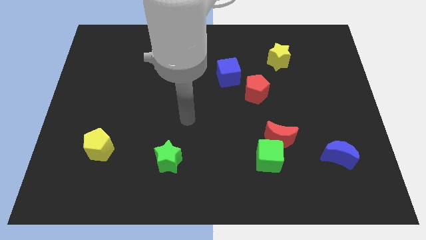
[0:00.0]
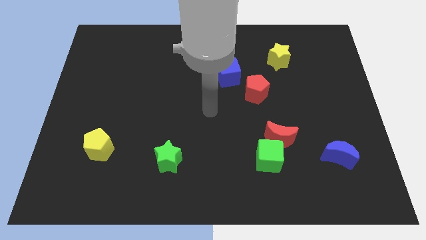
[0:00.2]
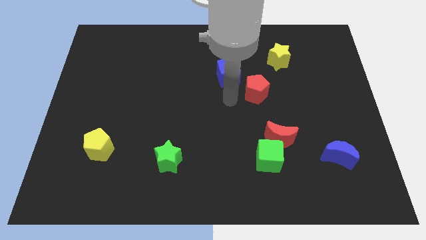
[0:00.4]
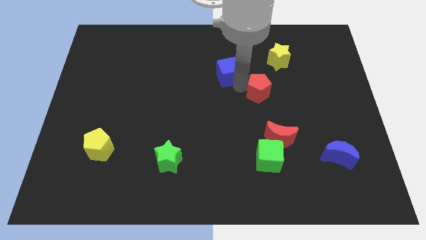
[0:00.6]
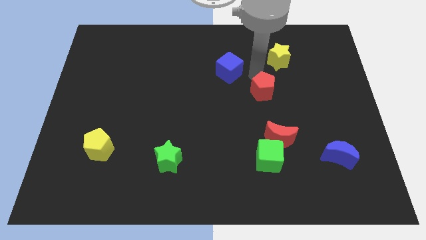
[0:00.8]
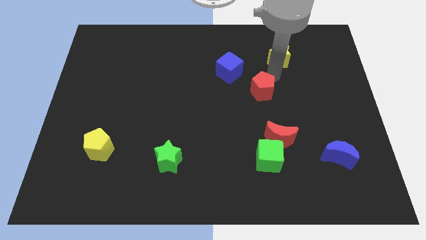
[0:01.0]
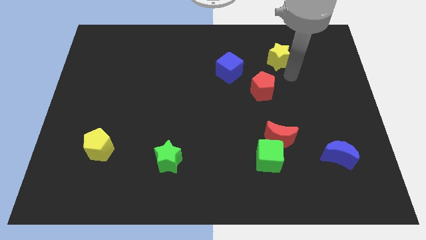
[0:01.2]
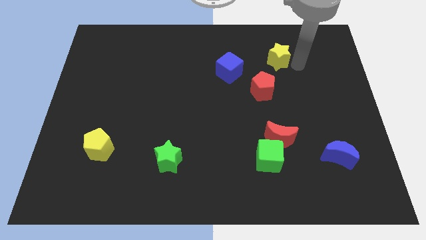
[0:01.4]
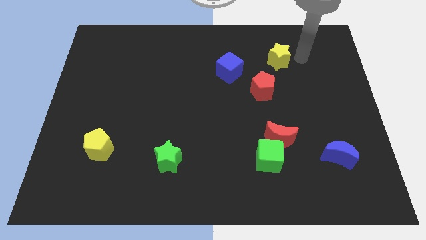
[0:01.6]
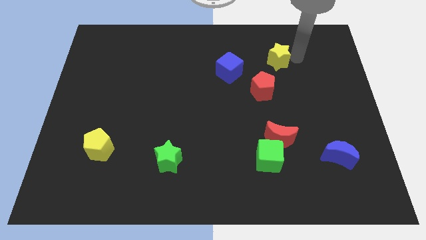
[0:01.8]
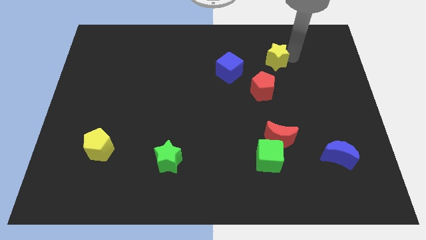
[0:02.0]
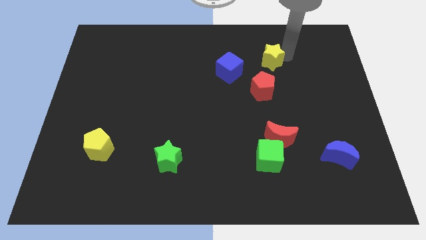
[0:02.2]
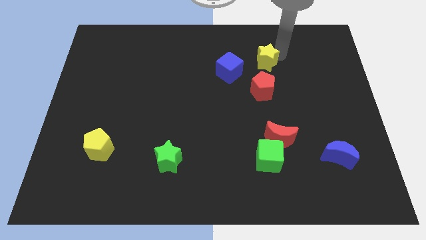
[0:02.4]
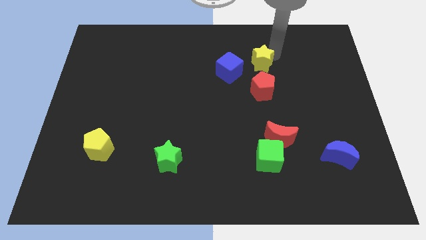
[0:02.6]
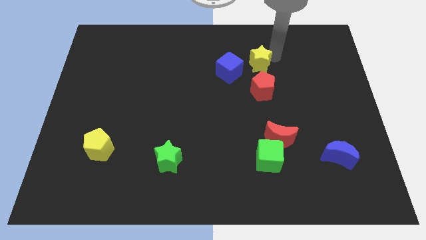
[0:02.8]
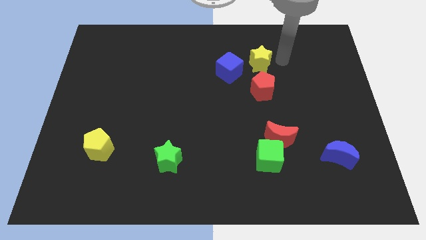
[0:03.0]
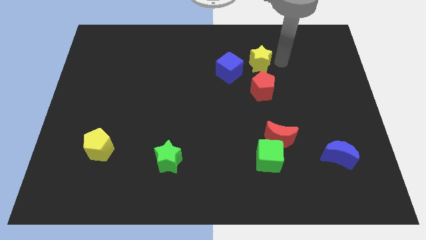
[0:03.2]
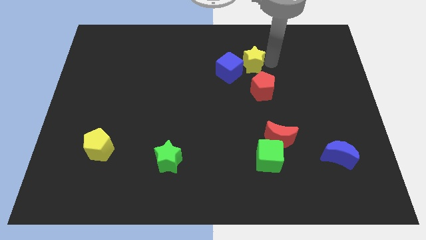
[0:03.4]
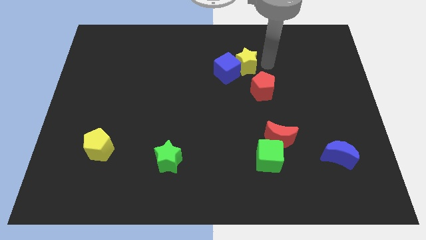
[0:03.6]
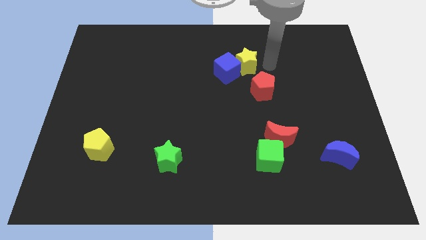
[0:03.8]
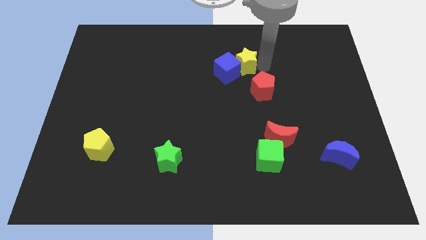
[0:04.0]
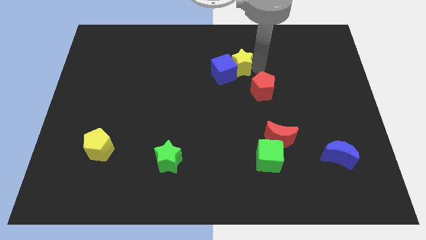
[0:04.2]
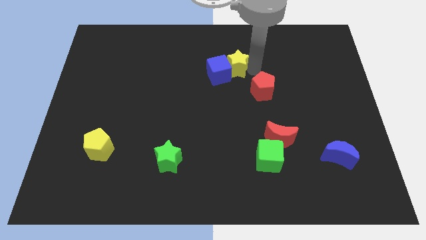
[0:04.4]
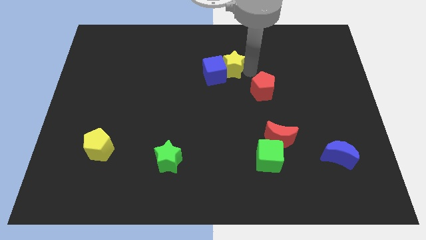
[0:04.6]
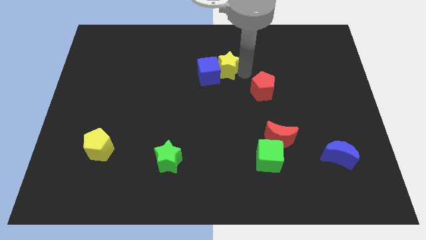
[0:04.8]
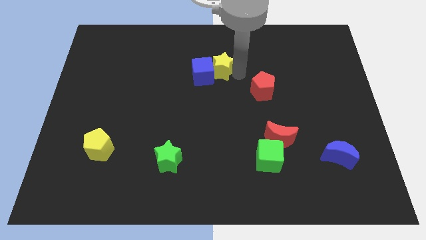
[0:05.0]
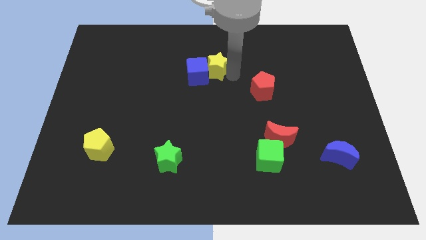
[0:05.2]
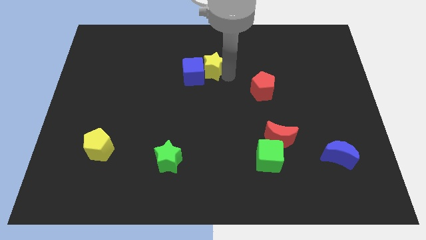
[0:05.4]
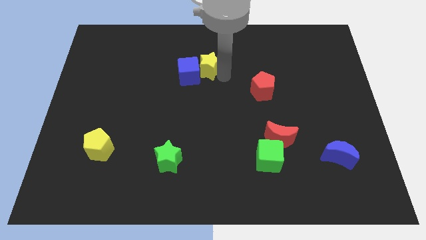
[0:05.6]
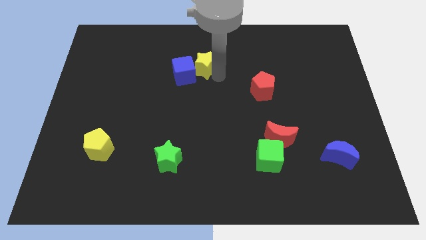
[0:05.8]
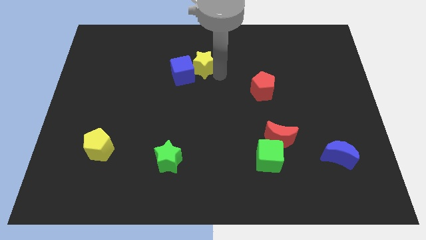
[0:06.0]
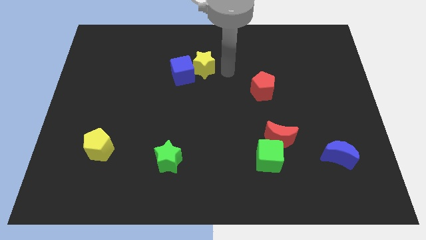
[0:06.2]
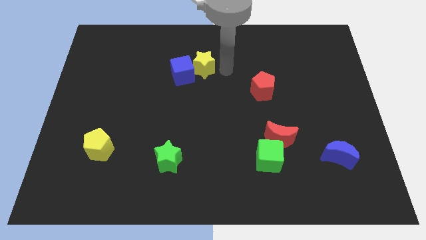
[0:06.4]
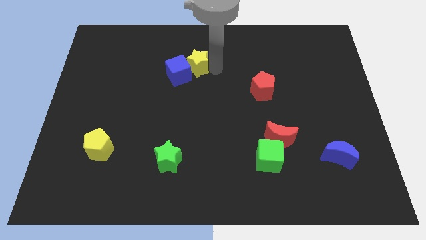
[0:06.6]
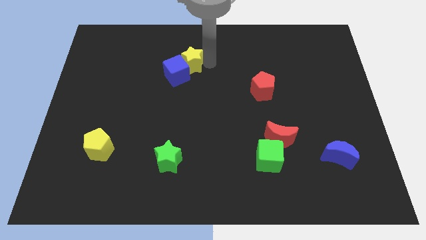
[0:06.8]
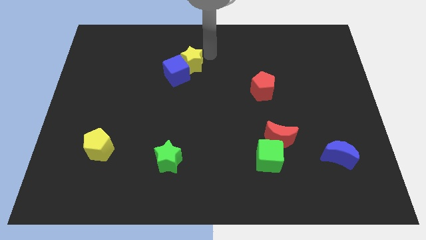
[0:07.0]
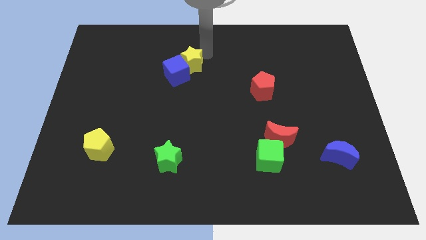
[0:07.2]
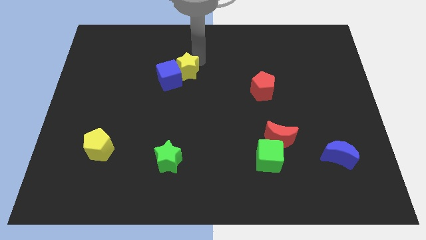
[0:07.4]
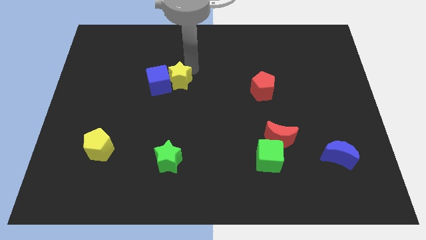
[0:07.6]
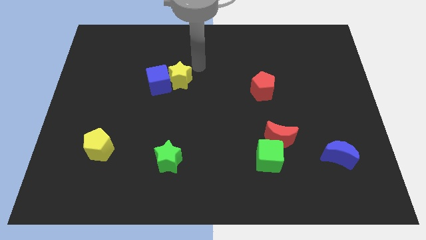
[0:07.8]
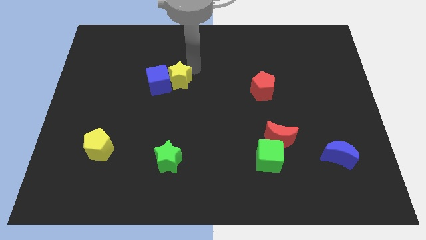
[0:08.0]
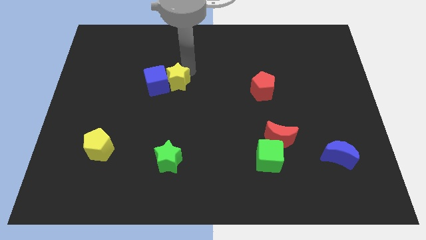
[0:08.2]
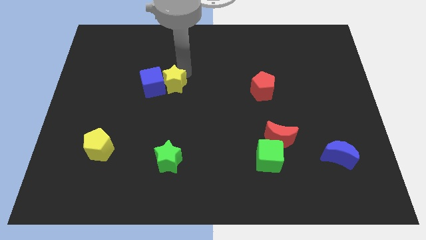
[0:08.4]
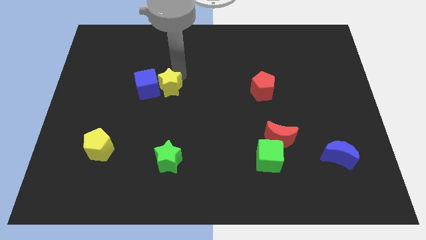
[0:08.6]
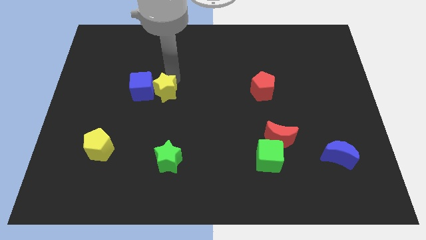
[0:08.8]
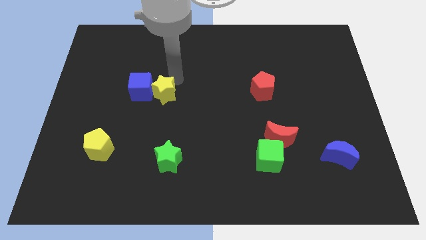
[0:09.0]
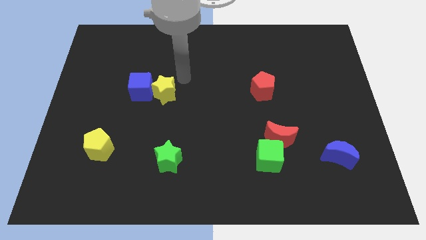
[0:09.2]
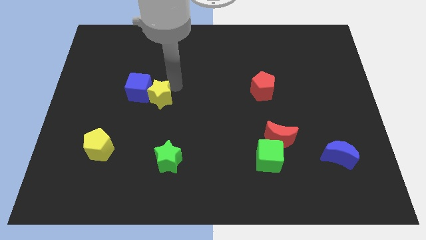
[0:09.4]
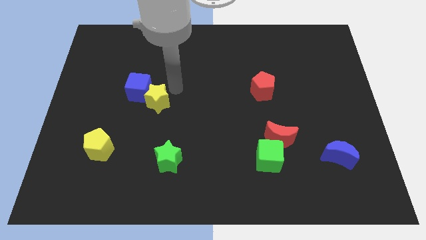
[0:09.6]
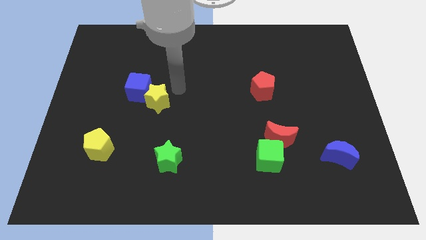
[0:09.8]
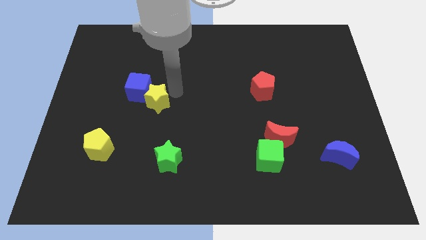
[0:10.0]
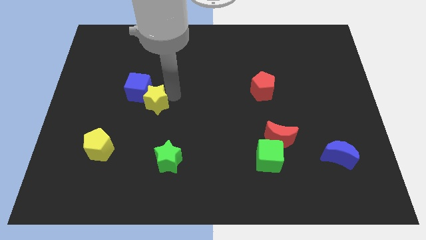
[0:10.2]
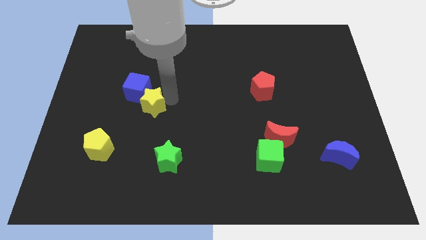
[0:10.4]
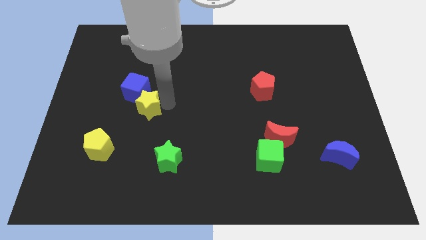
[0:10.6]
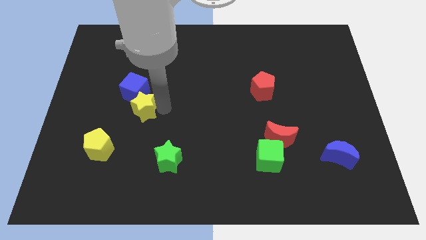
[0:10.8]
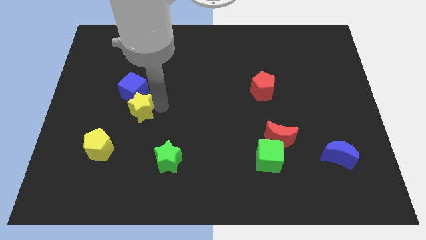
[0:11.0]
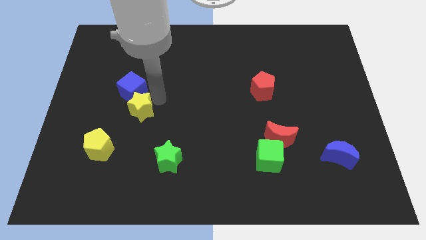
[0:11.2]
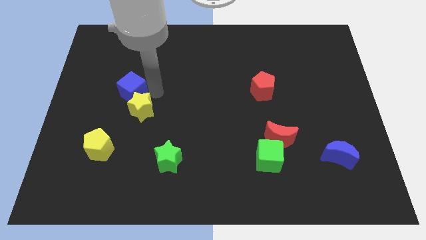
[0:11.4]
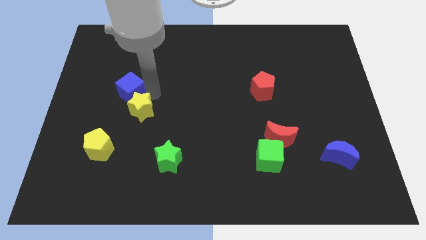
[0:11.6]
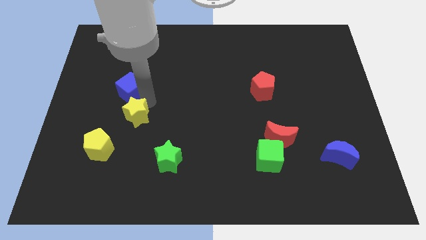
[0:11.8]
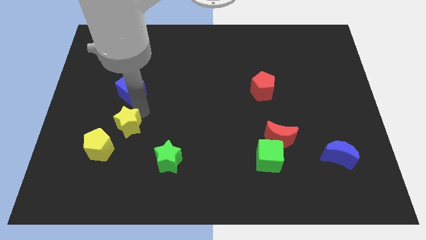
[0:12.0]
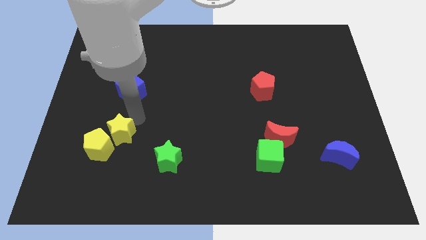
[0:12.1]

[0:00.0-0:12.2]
slide the yellow star towards the yellow pentagon

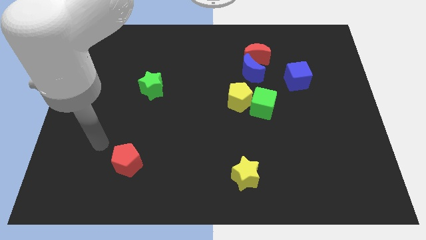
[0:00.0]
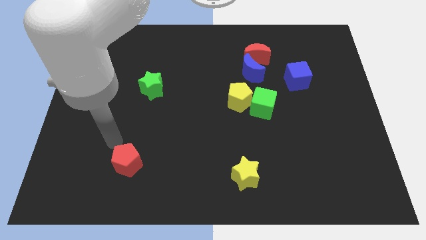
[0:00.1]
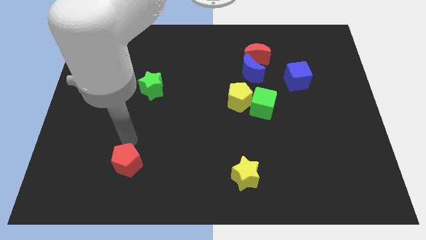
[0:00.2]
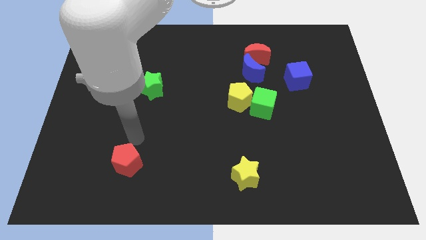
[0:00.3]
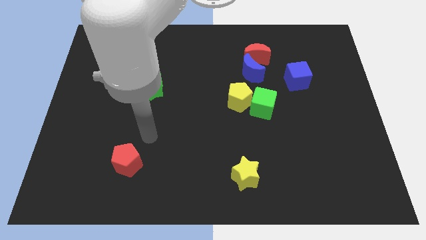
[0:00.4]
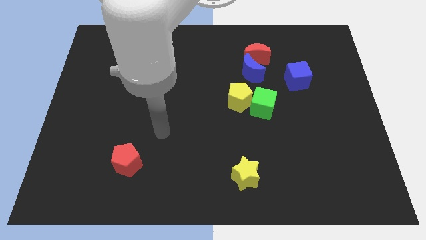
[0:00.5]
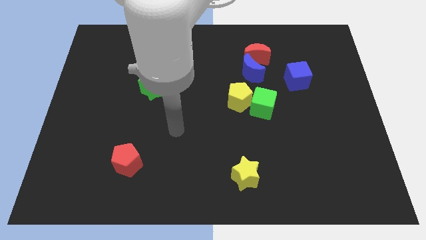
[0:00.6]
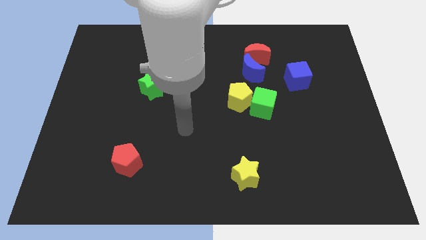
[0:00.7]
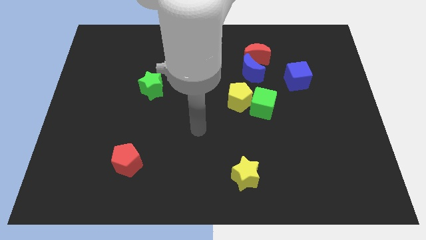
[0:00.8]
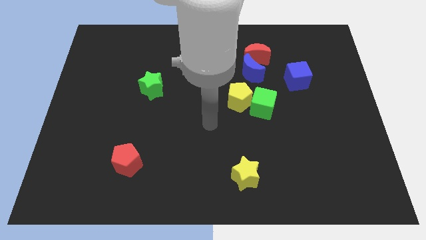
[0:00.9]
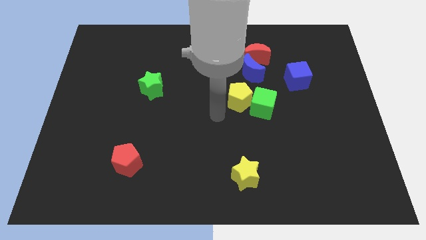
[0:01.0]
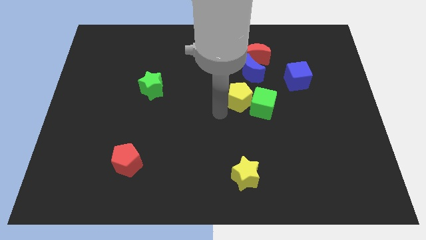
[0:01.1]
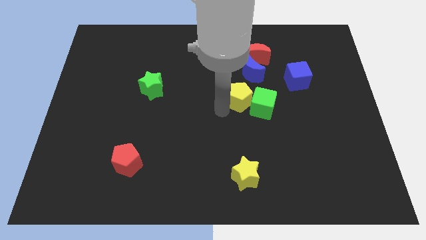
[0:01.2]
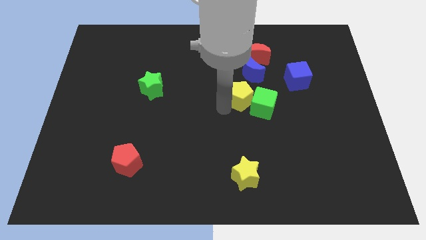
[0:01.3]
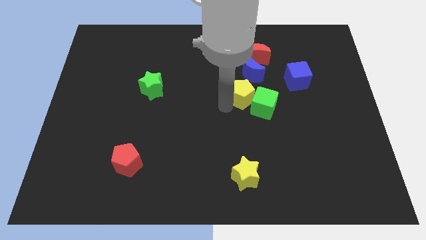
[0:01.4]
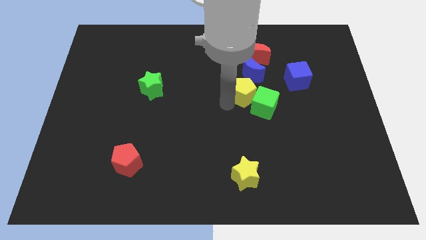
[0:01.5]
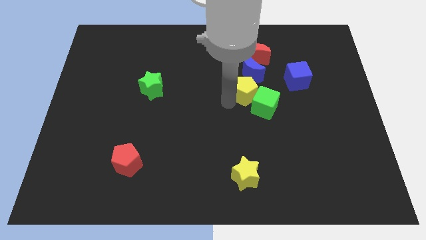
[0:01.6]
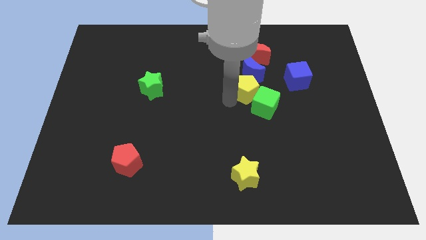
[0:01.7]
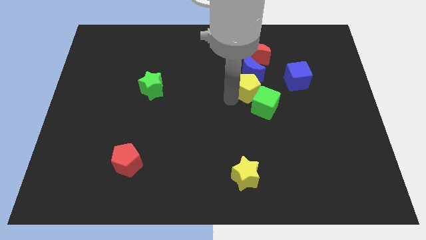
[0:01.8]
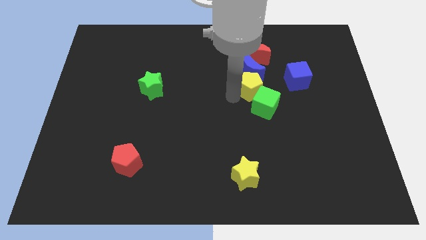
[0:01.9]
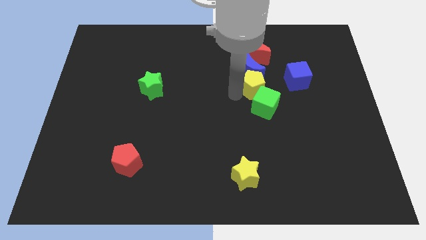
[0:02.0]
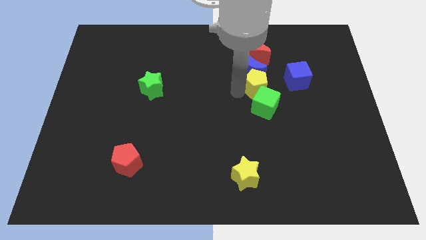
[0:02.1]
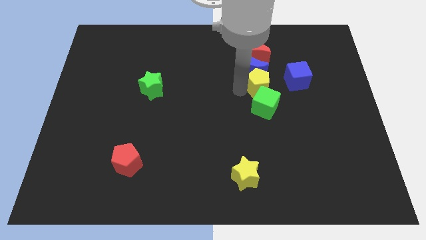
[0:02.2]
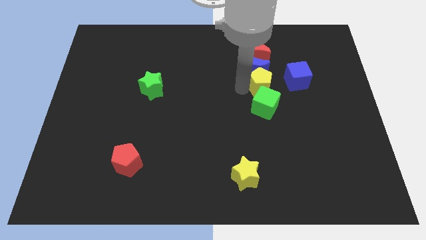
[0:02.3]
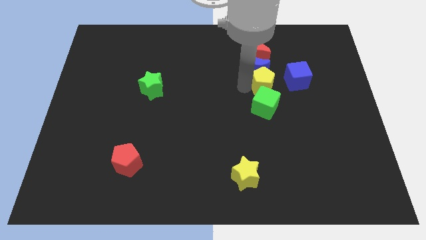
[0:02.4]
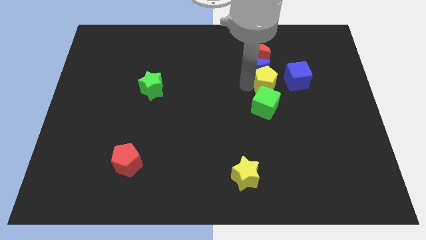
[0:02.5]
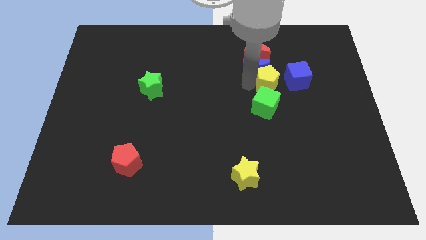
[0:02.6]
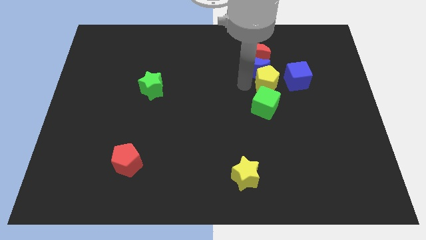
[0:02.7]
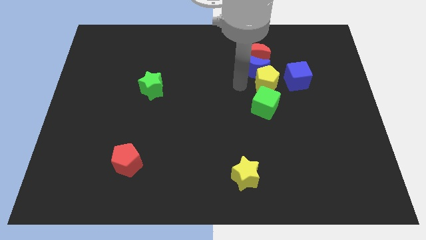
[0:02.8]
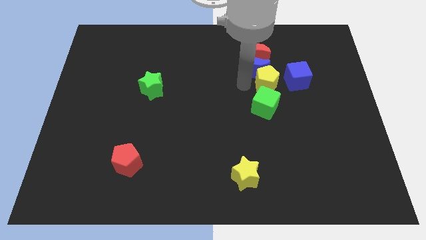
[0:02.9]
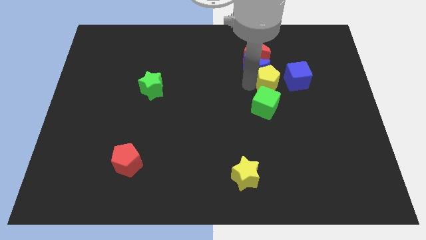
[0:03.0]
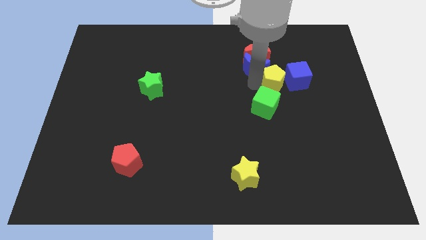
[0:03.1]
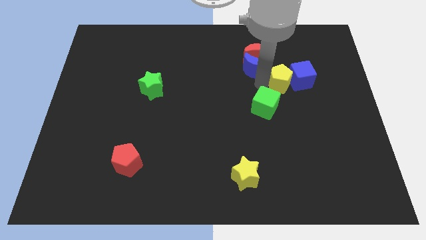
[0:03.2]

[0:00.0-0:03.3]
move the yellow pentagon towards the blue cube
